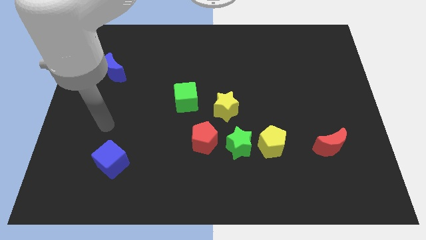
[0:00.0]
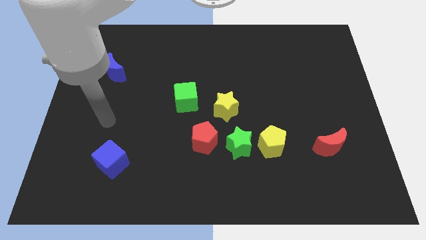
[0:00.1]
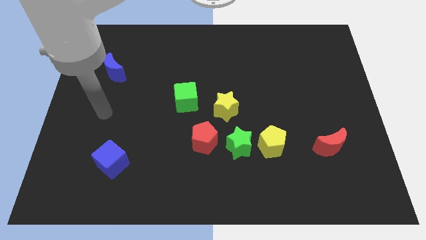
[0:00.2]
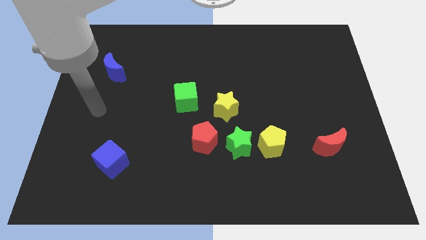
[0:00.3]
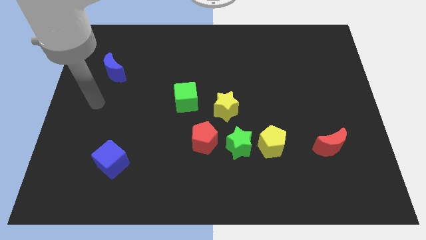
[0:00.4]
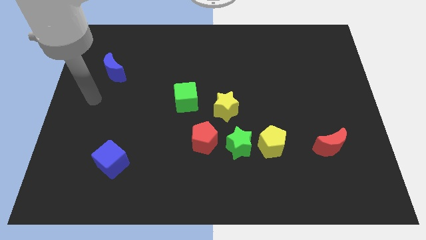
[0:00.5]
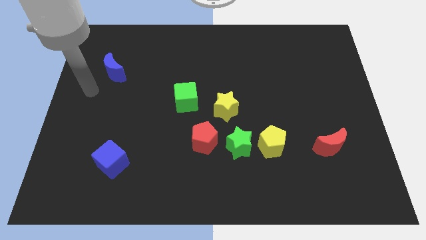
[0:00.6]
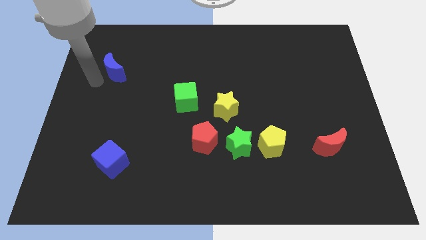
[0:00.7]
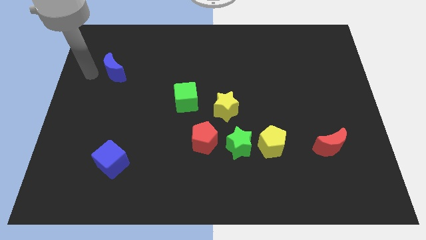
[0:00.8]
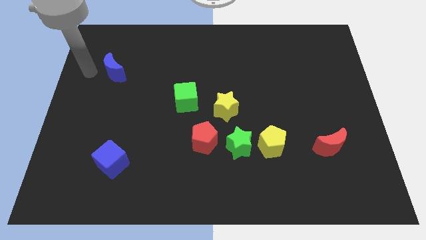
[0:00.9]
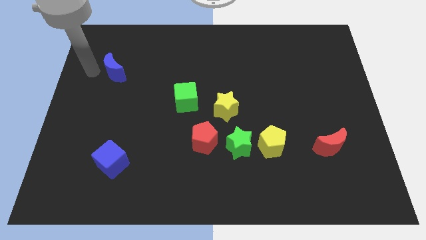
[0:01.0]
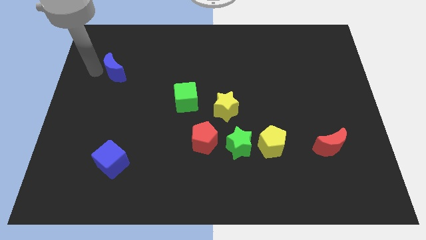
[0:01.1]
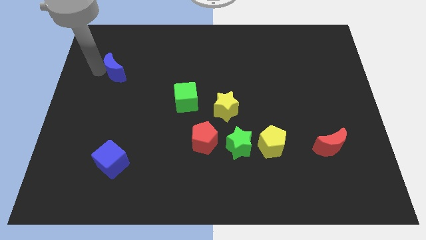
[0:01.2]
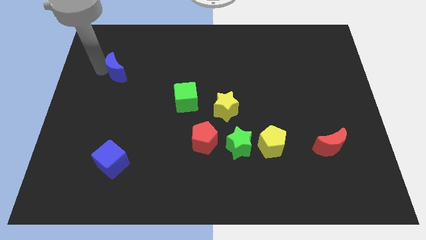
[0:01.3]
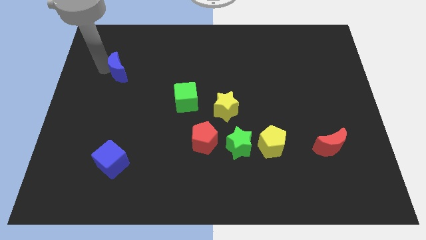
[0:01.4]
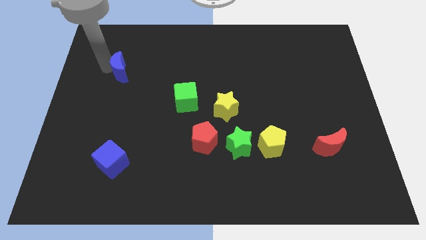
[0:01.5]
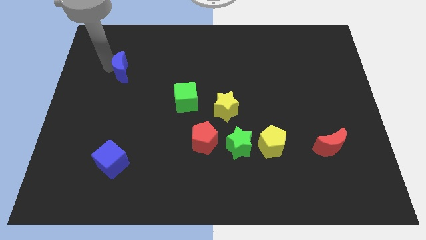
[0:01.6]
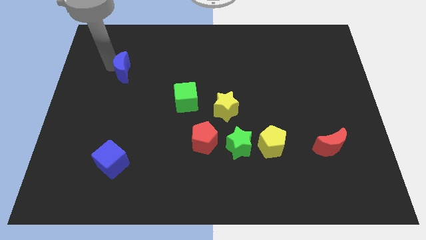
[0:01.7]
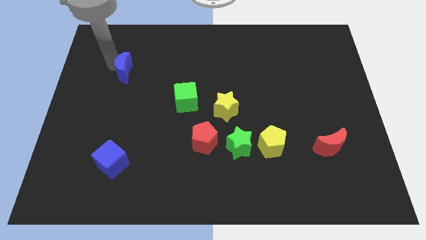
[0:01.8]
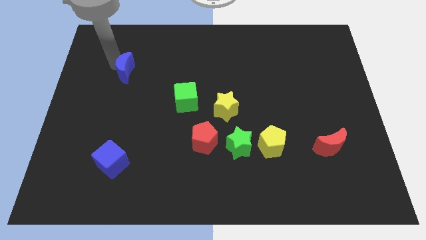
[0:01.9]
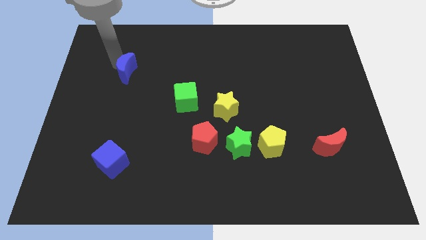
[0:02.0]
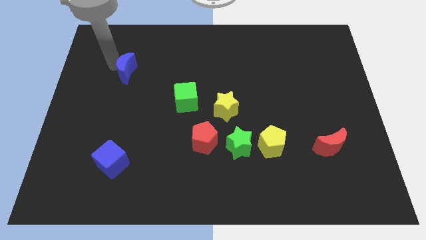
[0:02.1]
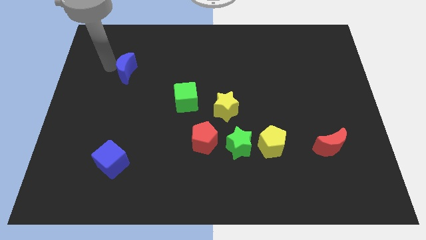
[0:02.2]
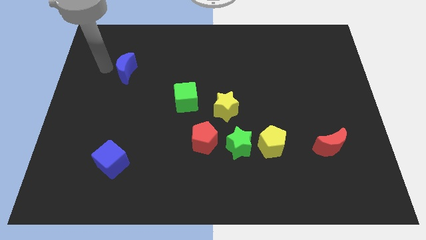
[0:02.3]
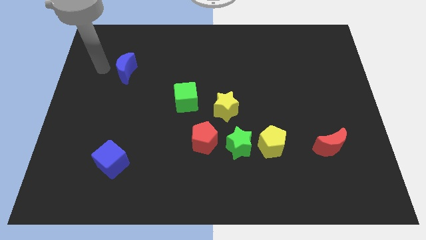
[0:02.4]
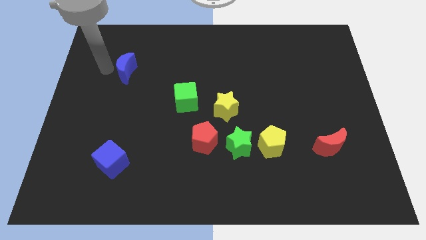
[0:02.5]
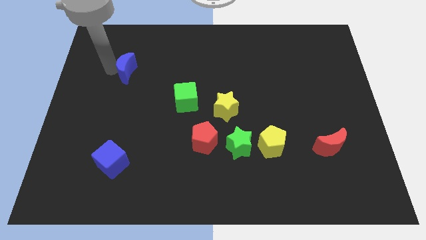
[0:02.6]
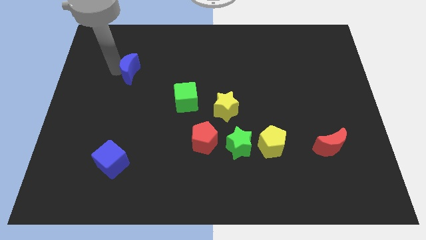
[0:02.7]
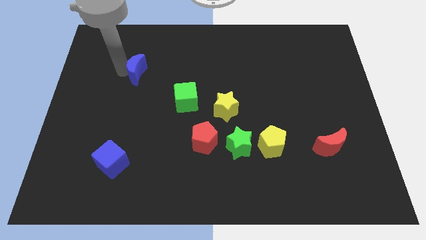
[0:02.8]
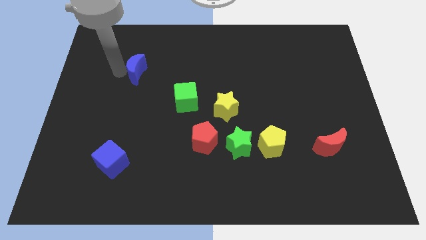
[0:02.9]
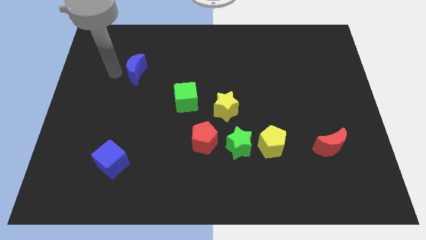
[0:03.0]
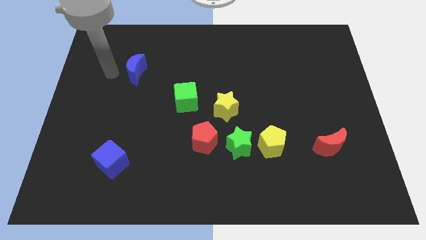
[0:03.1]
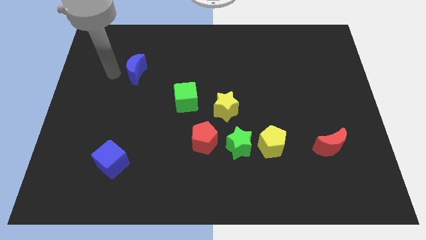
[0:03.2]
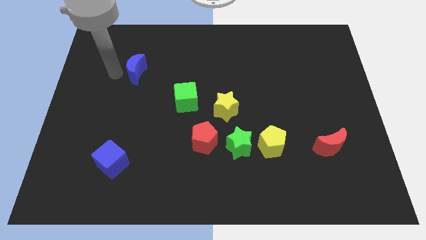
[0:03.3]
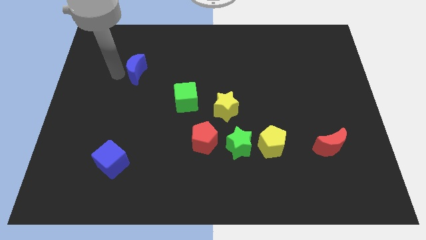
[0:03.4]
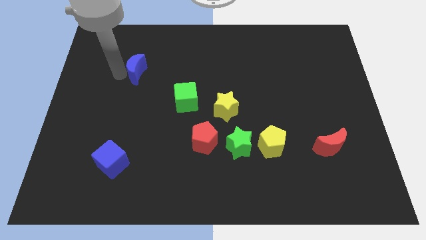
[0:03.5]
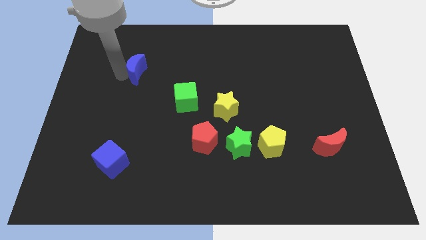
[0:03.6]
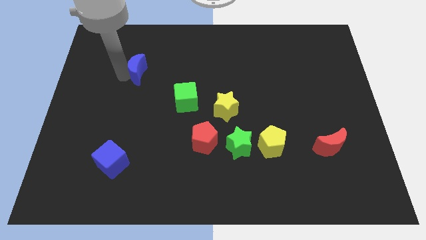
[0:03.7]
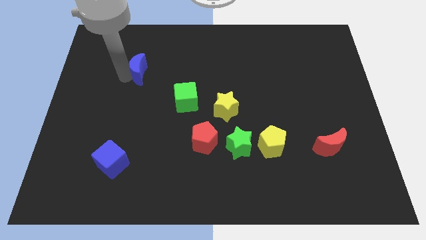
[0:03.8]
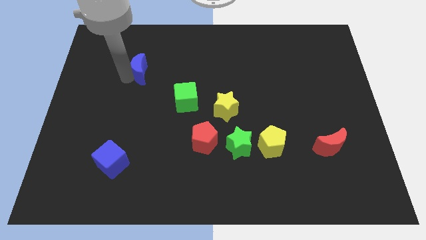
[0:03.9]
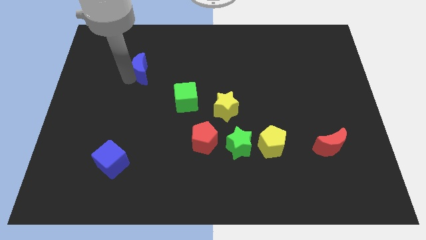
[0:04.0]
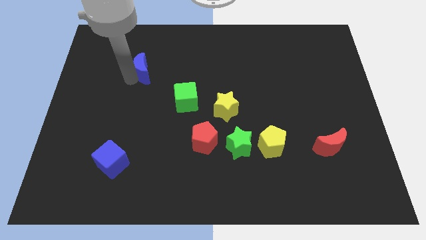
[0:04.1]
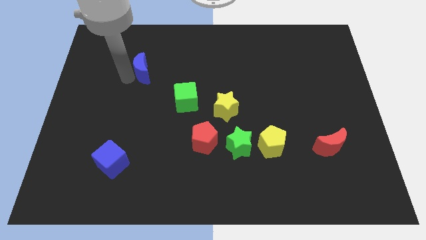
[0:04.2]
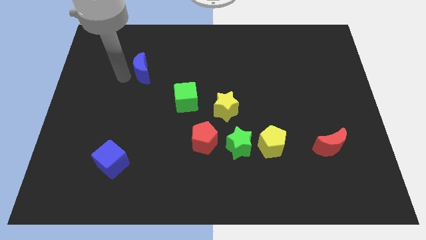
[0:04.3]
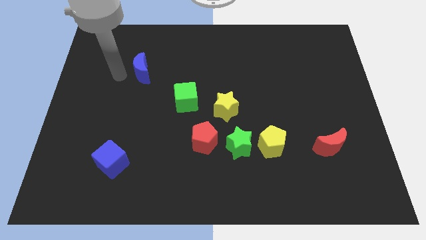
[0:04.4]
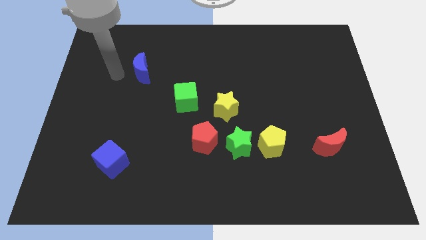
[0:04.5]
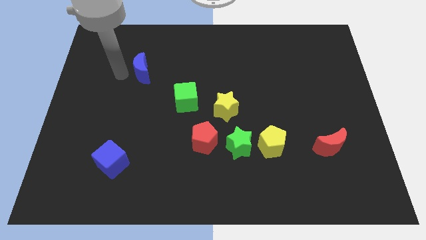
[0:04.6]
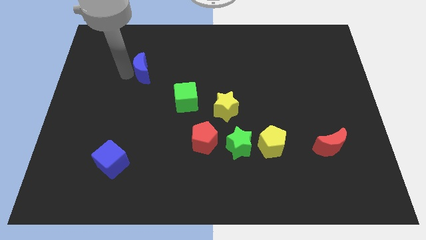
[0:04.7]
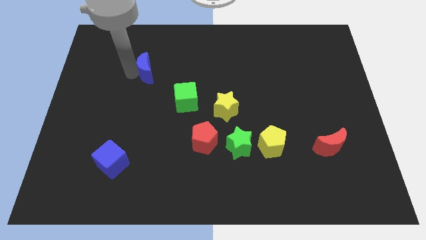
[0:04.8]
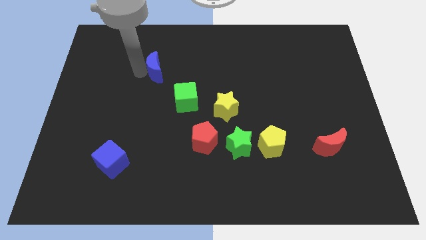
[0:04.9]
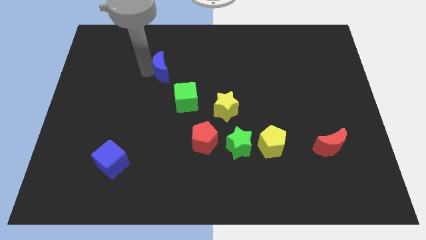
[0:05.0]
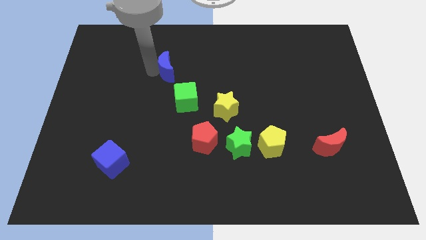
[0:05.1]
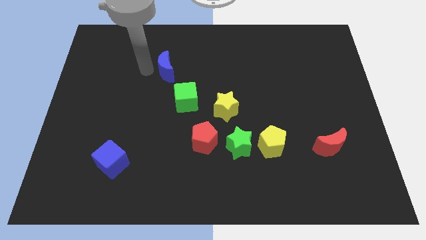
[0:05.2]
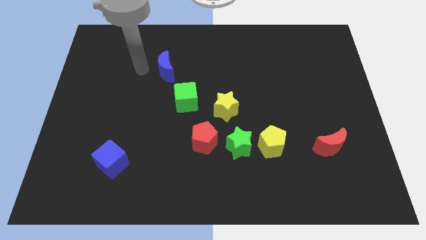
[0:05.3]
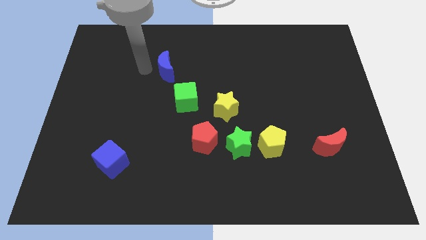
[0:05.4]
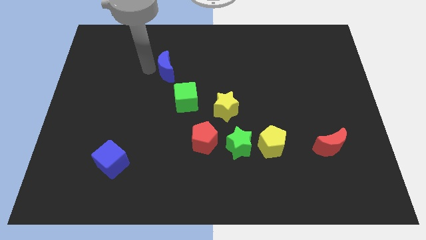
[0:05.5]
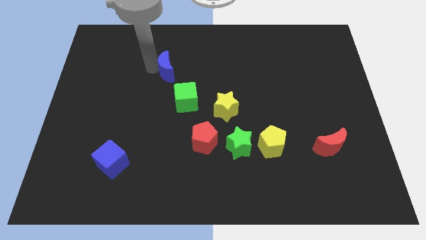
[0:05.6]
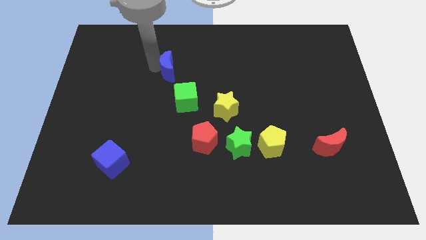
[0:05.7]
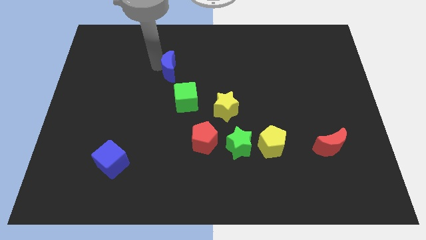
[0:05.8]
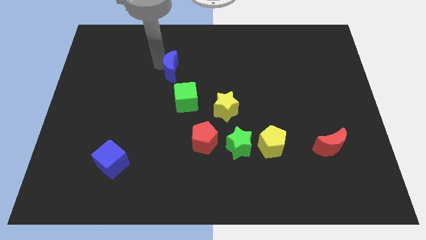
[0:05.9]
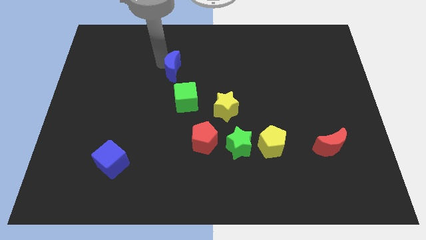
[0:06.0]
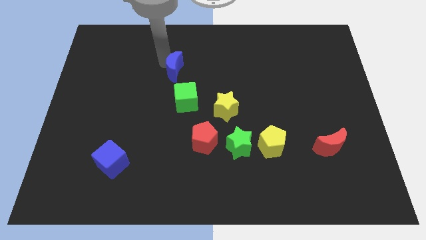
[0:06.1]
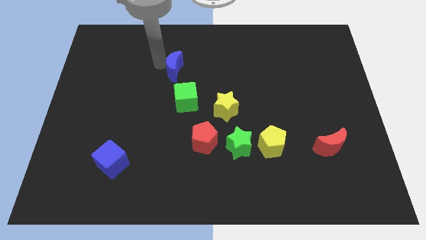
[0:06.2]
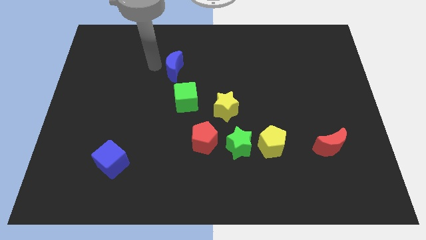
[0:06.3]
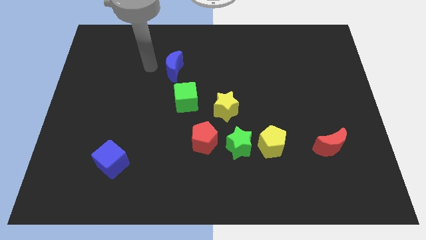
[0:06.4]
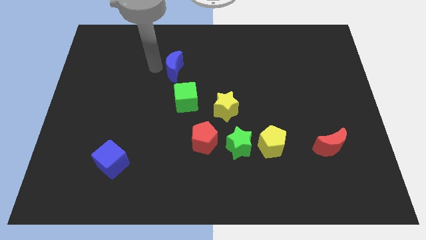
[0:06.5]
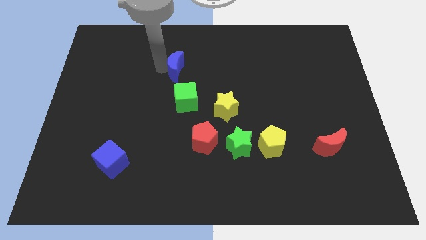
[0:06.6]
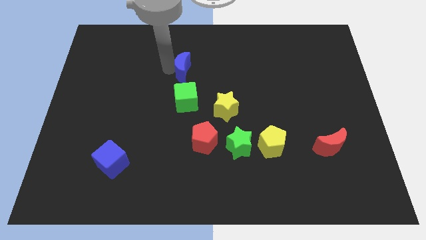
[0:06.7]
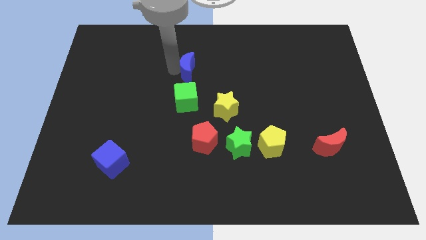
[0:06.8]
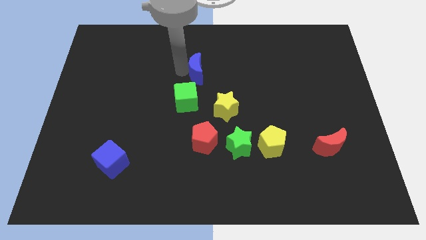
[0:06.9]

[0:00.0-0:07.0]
push the blue moon right

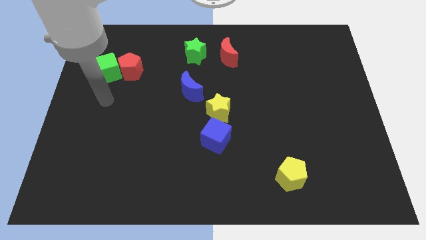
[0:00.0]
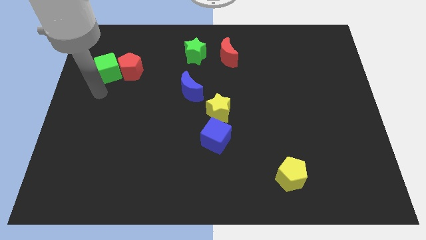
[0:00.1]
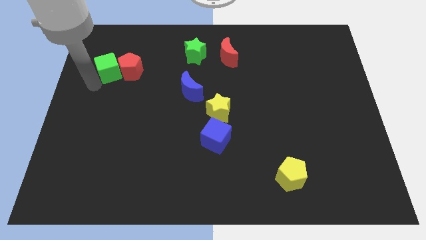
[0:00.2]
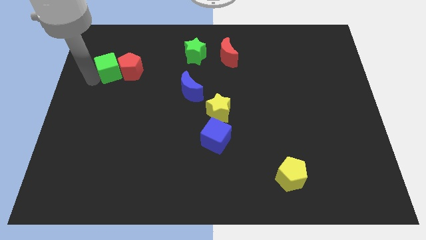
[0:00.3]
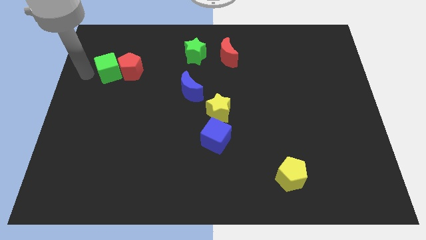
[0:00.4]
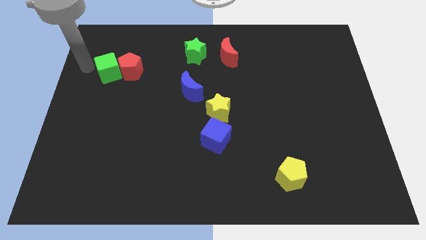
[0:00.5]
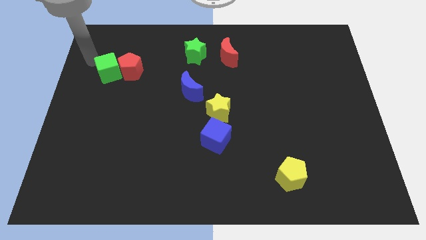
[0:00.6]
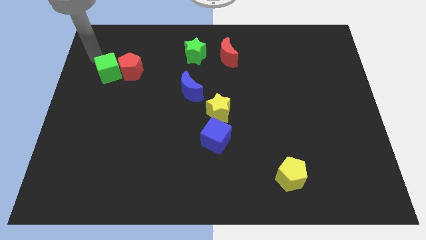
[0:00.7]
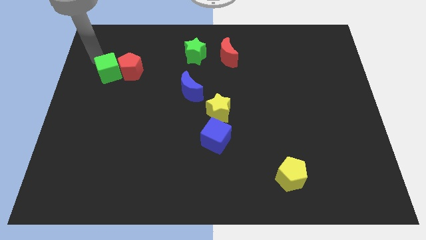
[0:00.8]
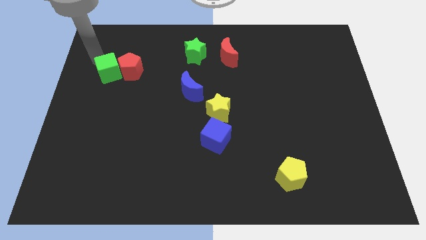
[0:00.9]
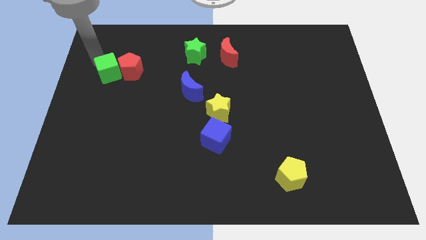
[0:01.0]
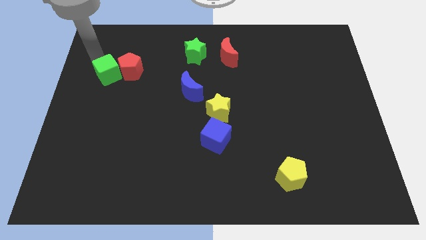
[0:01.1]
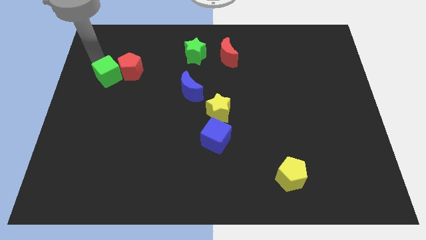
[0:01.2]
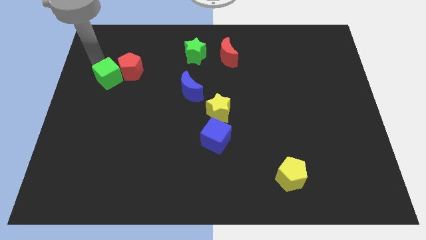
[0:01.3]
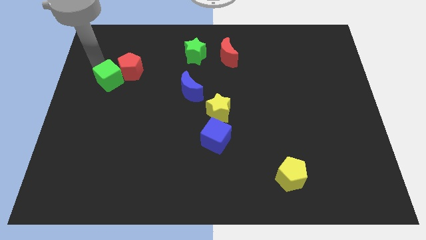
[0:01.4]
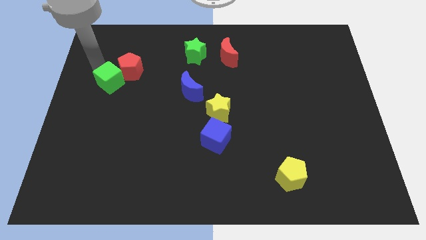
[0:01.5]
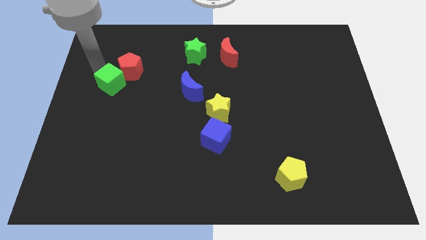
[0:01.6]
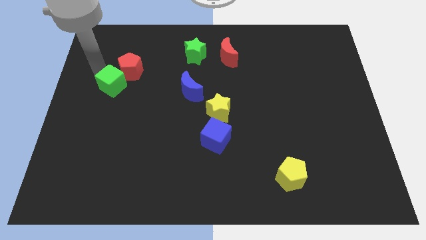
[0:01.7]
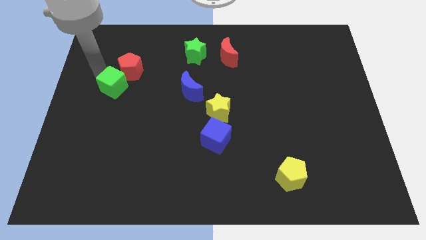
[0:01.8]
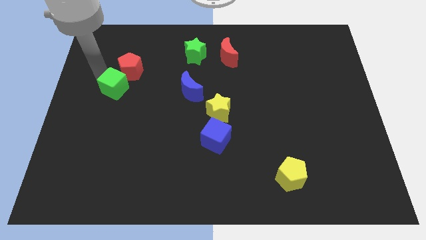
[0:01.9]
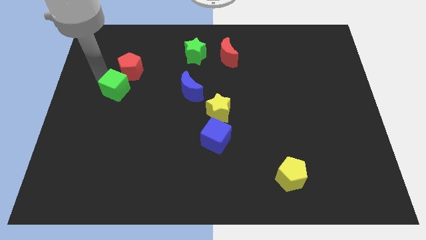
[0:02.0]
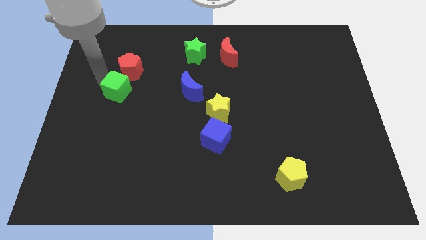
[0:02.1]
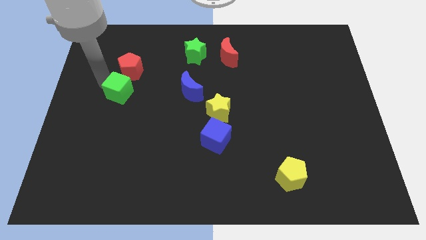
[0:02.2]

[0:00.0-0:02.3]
push the green cube somewhat down and then to the right
